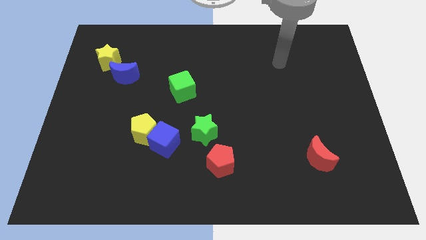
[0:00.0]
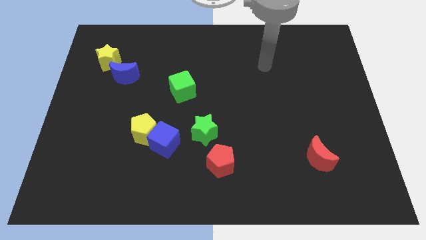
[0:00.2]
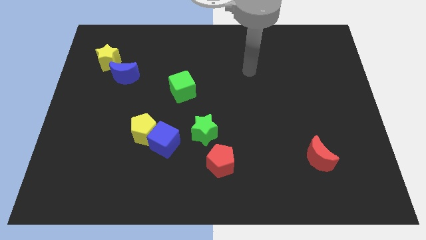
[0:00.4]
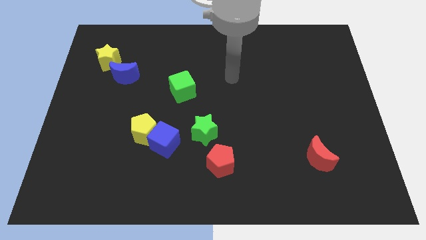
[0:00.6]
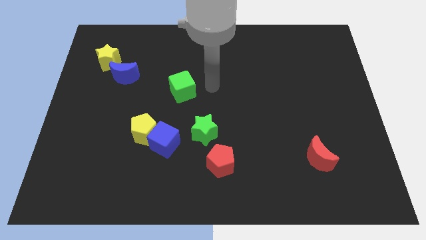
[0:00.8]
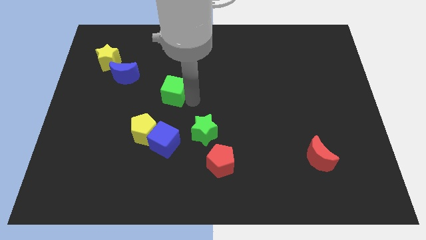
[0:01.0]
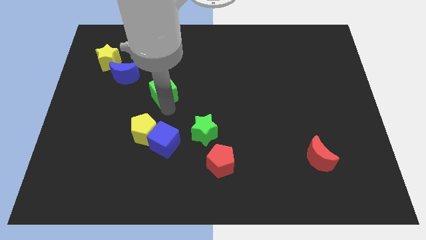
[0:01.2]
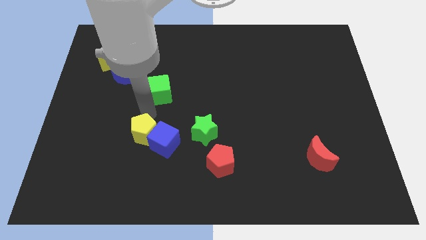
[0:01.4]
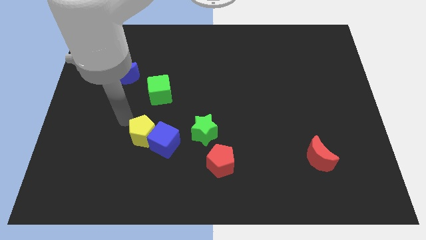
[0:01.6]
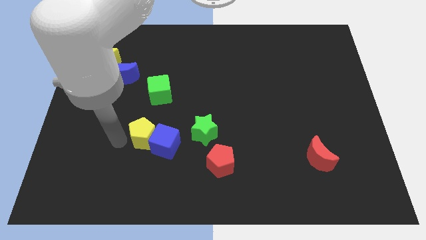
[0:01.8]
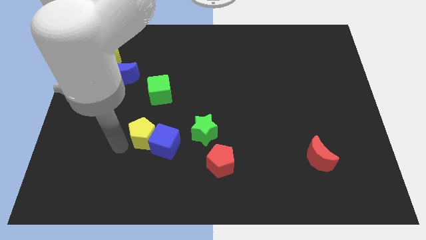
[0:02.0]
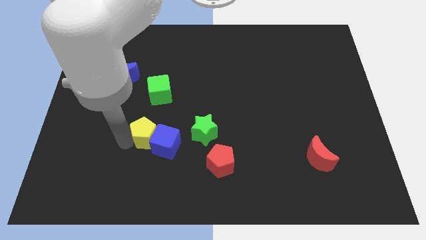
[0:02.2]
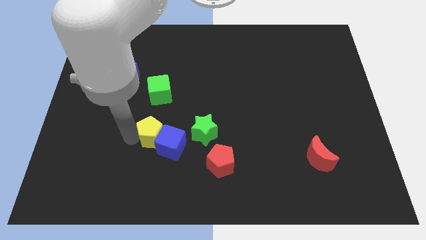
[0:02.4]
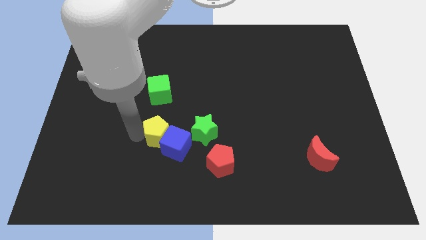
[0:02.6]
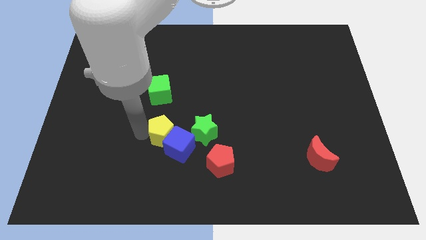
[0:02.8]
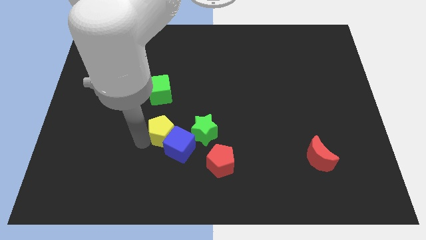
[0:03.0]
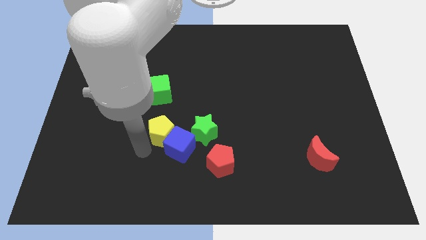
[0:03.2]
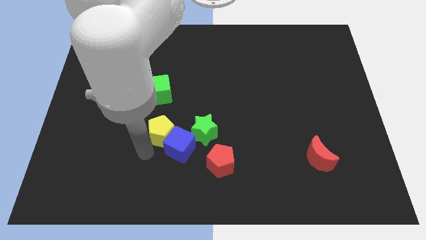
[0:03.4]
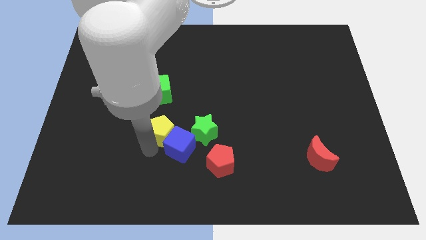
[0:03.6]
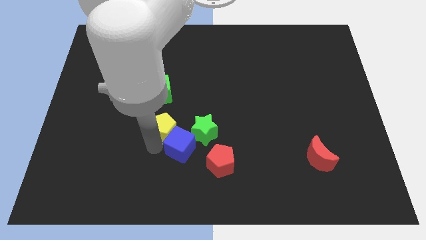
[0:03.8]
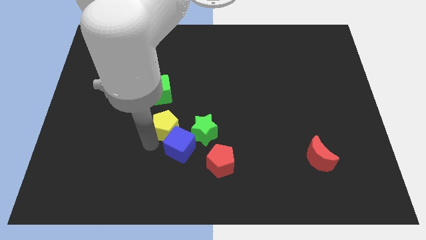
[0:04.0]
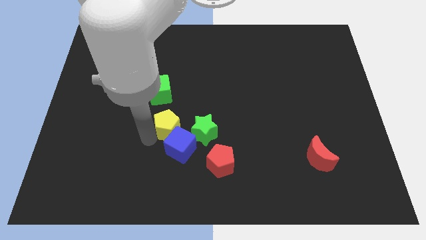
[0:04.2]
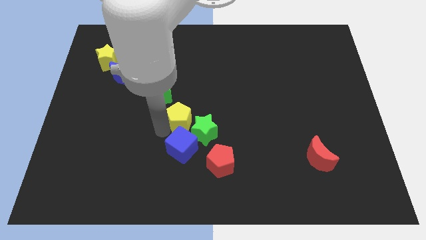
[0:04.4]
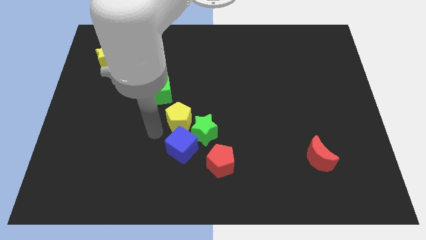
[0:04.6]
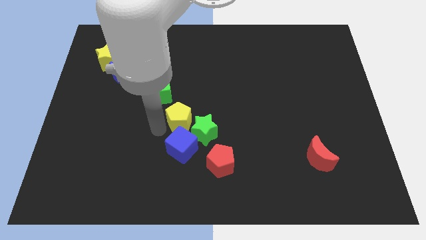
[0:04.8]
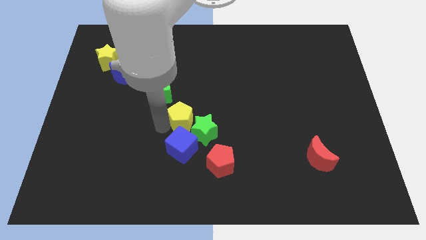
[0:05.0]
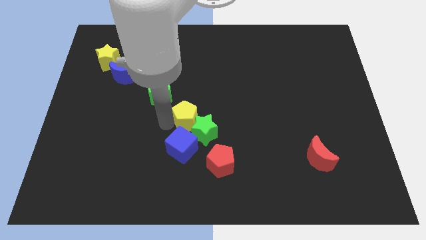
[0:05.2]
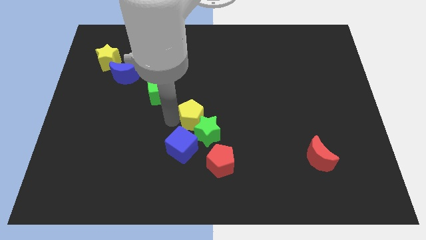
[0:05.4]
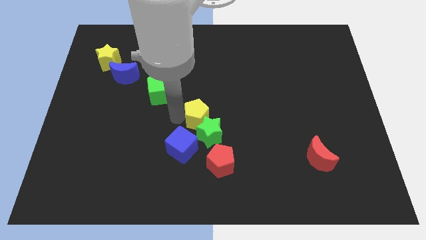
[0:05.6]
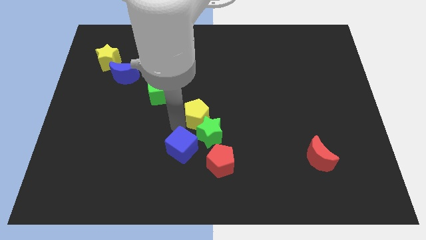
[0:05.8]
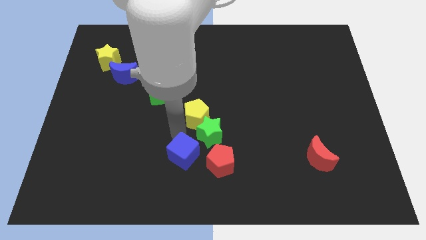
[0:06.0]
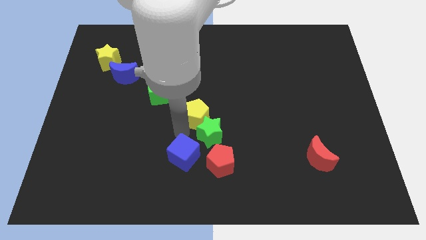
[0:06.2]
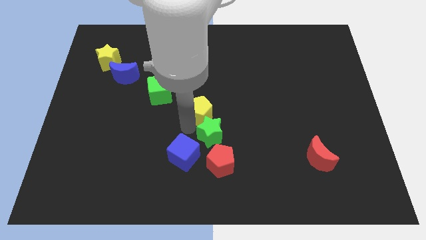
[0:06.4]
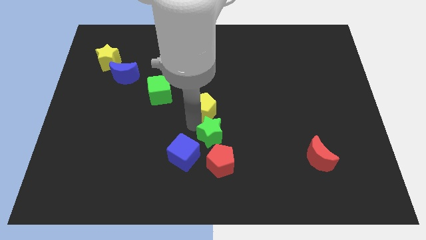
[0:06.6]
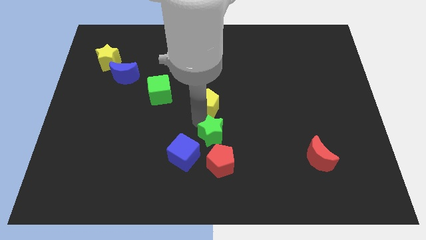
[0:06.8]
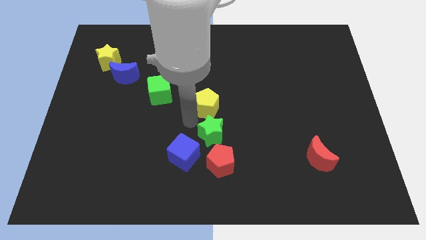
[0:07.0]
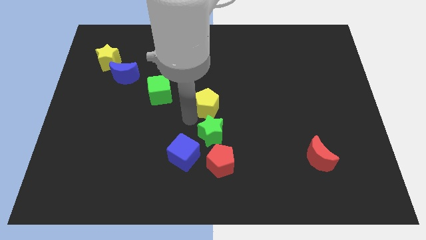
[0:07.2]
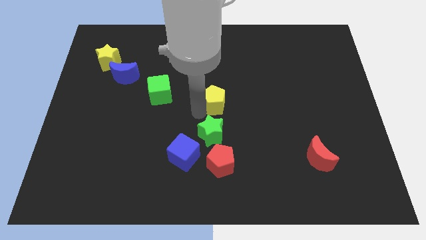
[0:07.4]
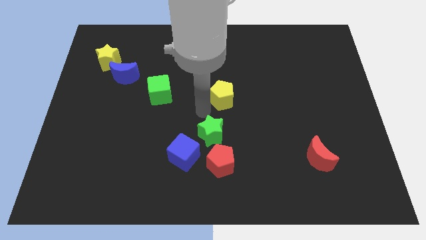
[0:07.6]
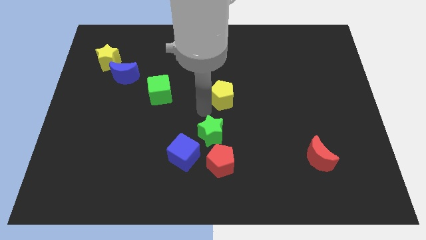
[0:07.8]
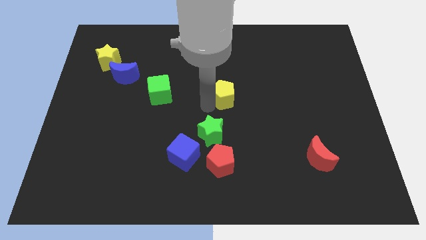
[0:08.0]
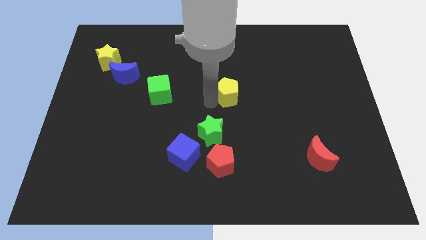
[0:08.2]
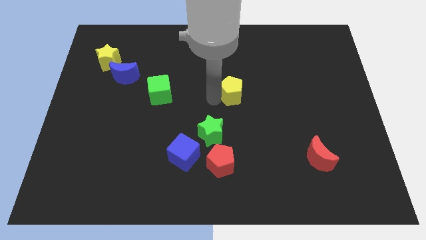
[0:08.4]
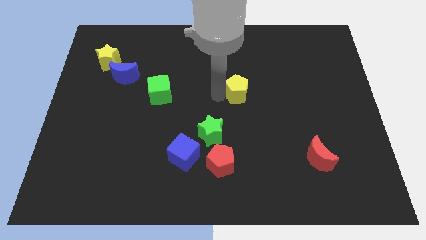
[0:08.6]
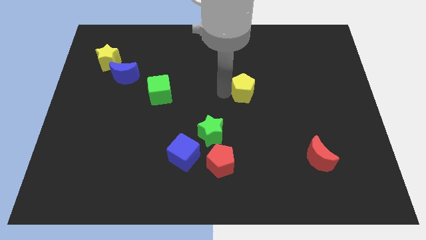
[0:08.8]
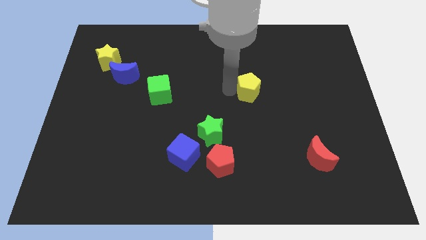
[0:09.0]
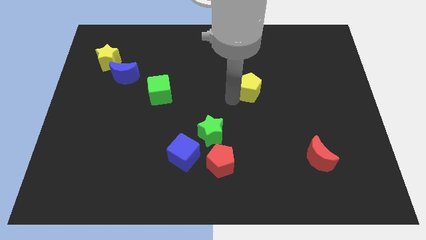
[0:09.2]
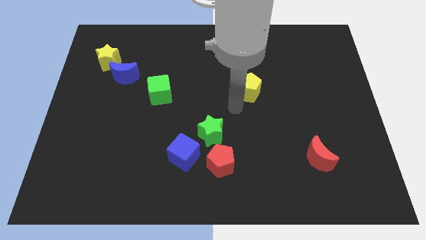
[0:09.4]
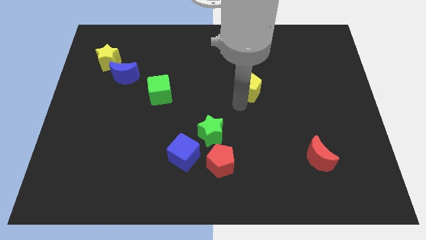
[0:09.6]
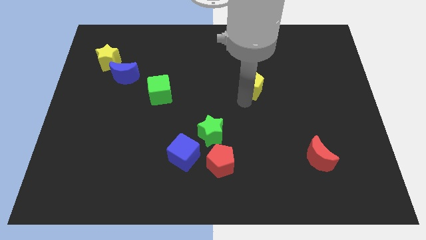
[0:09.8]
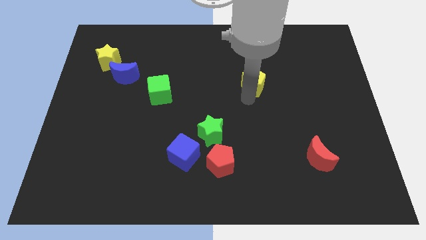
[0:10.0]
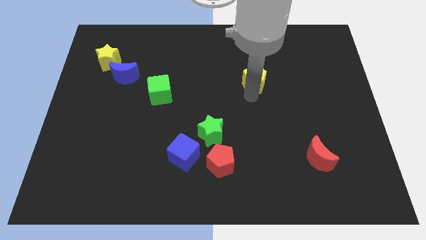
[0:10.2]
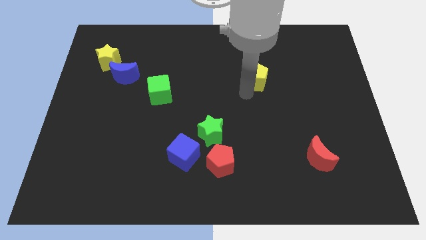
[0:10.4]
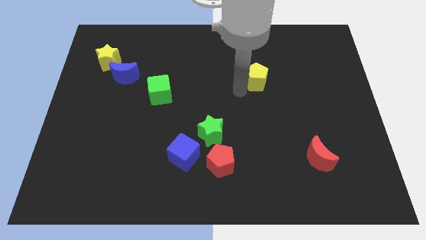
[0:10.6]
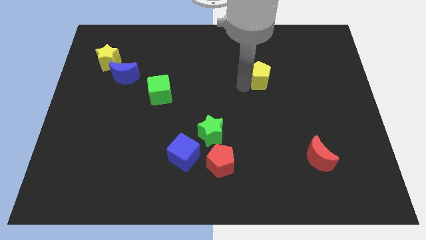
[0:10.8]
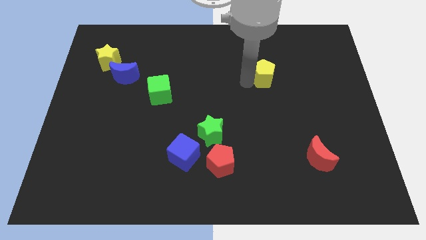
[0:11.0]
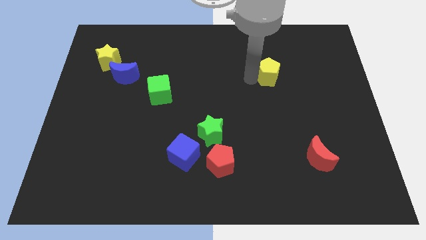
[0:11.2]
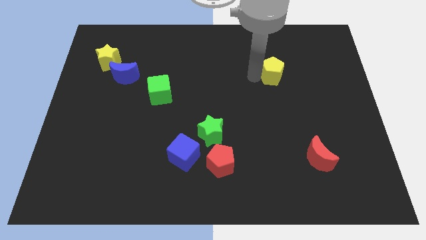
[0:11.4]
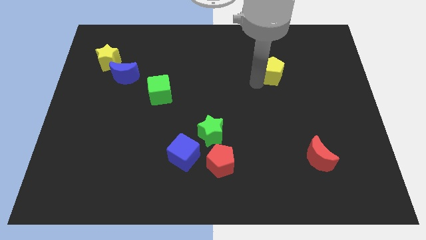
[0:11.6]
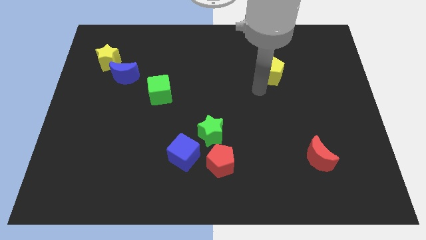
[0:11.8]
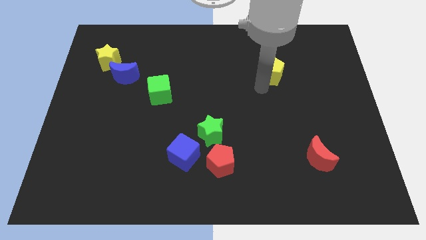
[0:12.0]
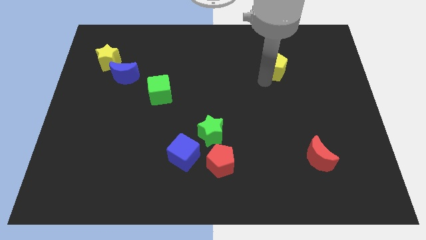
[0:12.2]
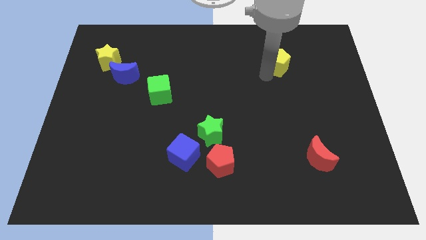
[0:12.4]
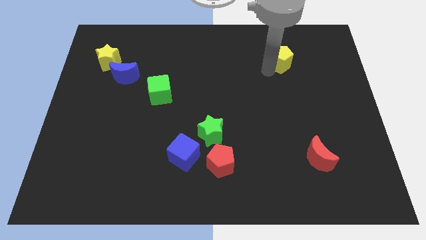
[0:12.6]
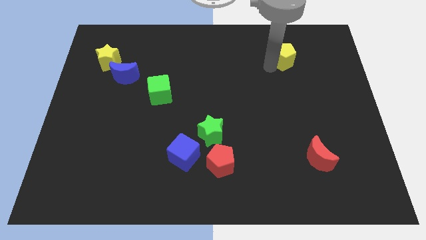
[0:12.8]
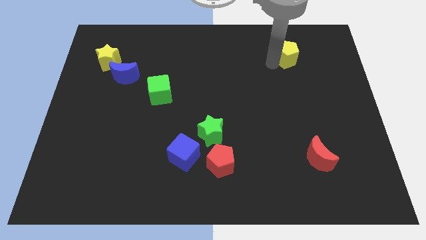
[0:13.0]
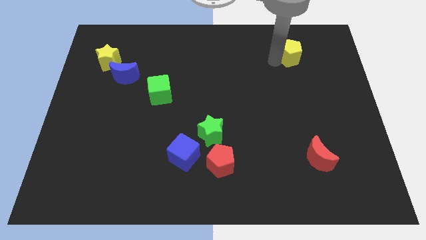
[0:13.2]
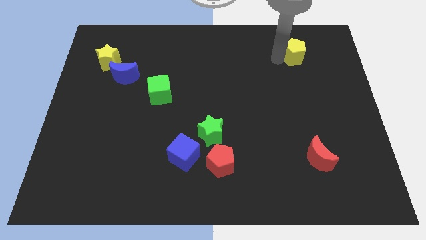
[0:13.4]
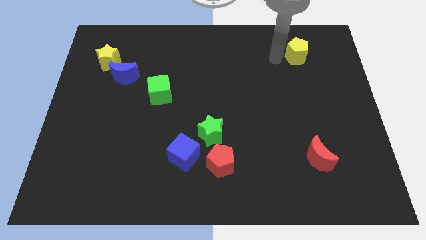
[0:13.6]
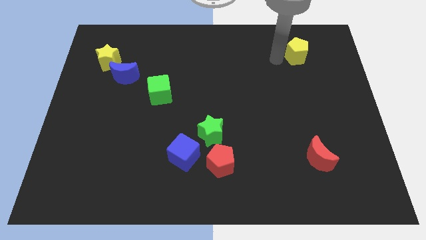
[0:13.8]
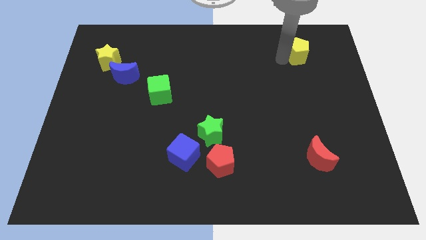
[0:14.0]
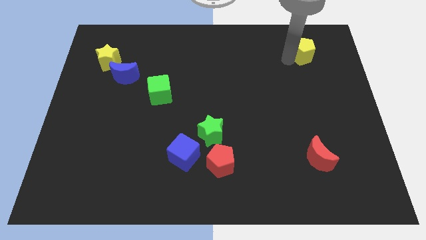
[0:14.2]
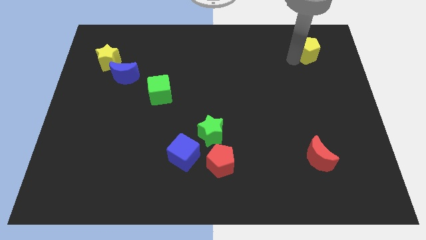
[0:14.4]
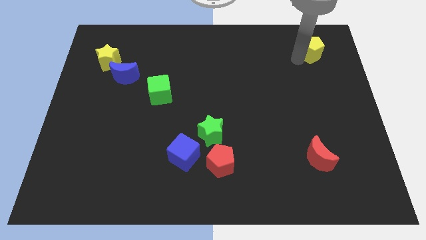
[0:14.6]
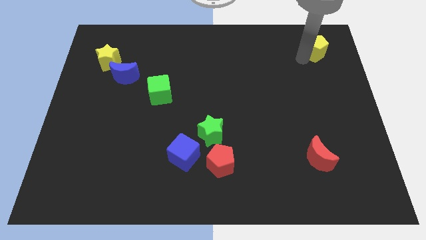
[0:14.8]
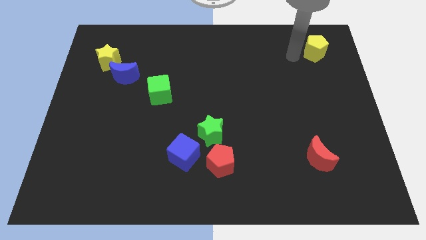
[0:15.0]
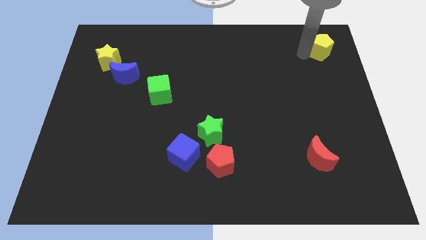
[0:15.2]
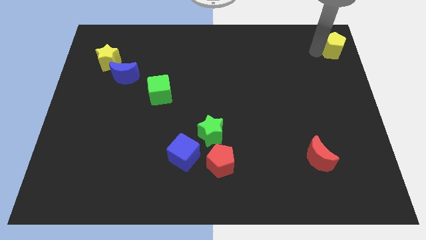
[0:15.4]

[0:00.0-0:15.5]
put the yellow pentagon to the top right
